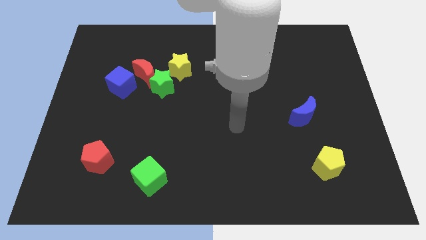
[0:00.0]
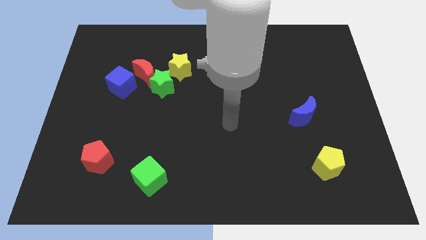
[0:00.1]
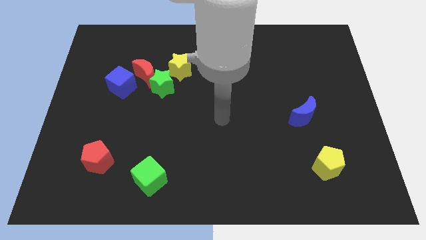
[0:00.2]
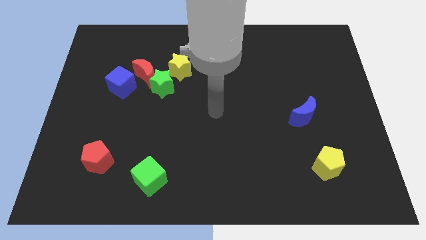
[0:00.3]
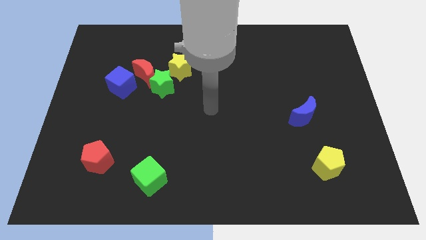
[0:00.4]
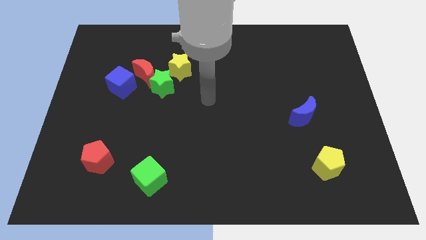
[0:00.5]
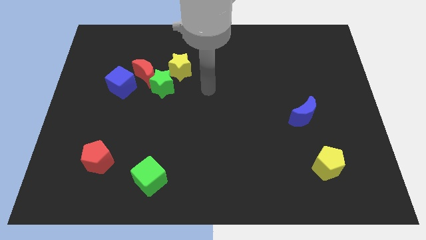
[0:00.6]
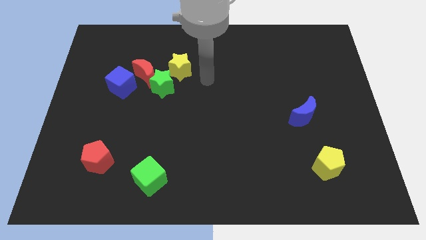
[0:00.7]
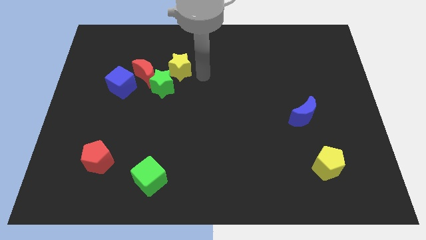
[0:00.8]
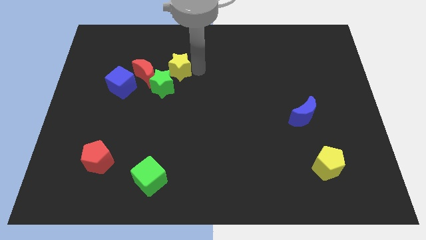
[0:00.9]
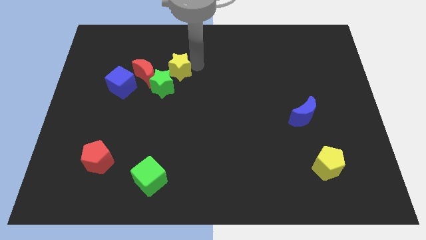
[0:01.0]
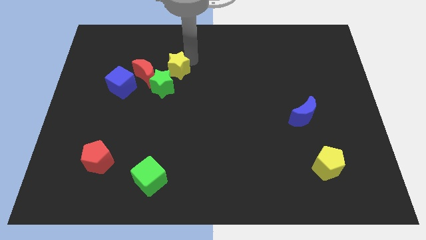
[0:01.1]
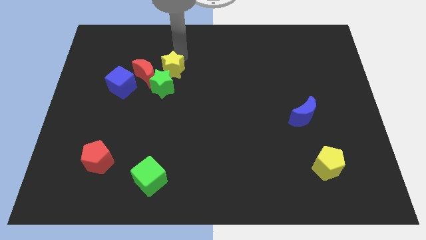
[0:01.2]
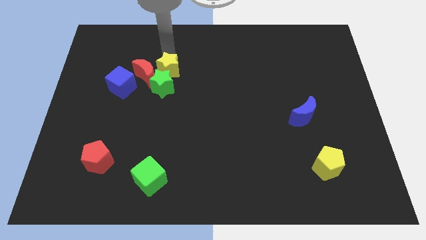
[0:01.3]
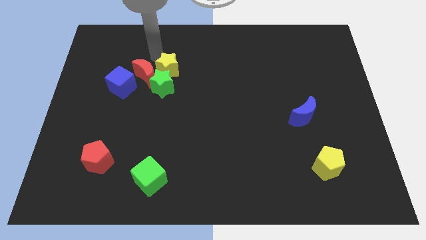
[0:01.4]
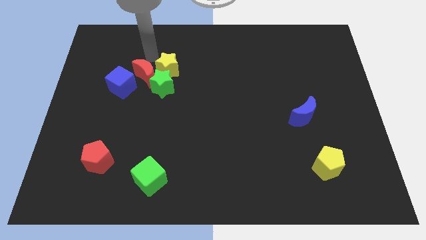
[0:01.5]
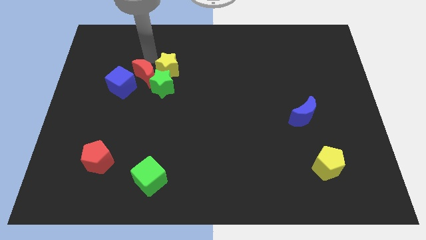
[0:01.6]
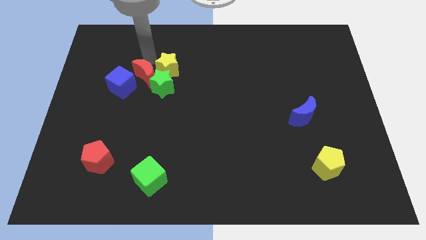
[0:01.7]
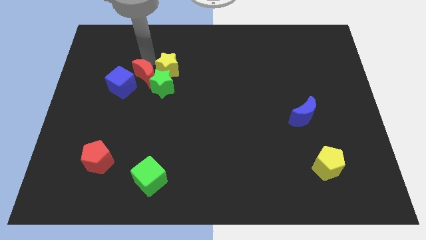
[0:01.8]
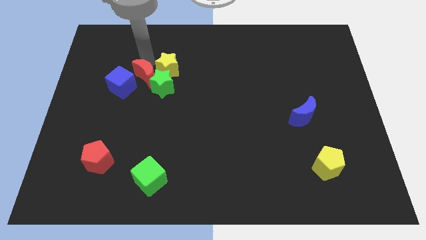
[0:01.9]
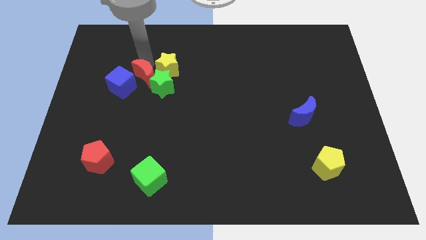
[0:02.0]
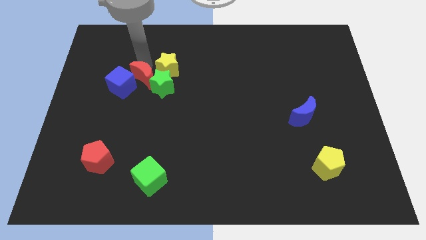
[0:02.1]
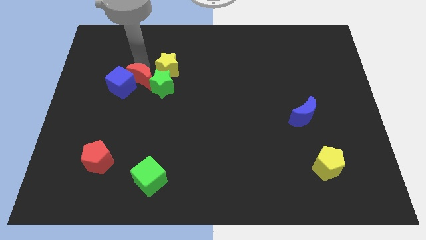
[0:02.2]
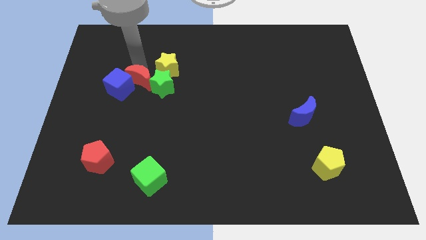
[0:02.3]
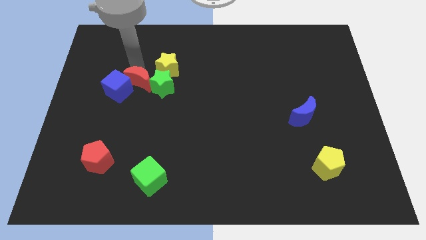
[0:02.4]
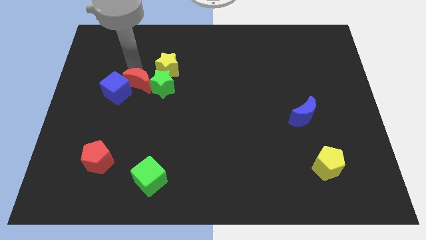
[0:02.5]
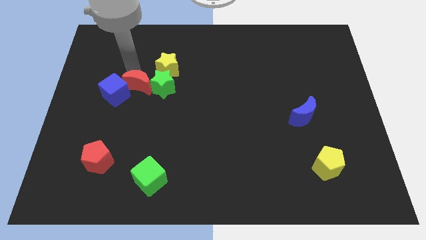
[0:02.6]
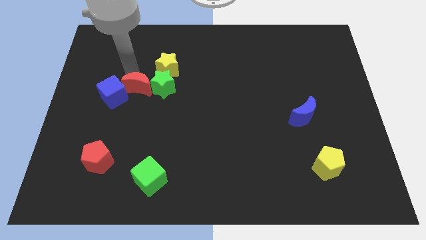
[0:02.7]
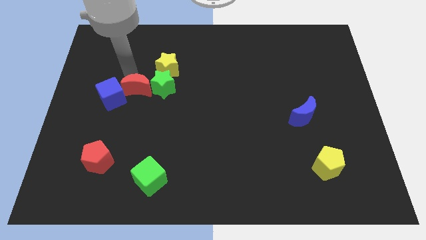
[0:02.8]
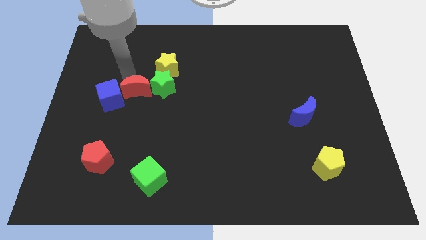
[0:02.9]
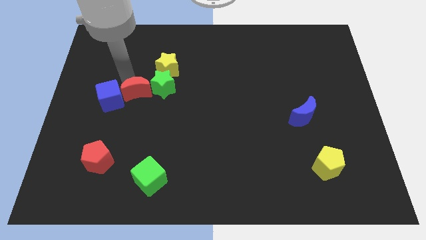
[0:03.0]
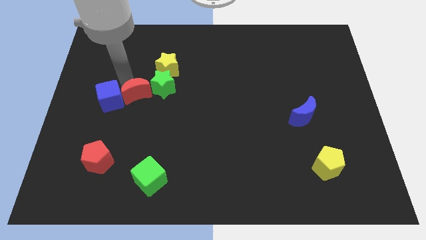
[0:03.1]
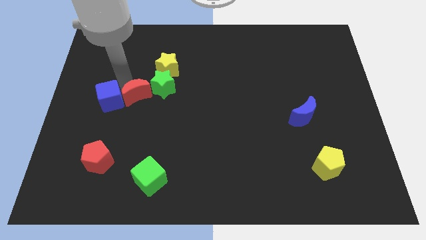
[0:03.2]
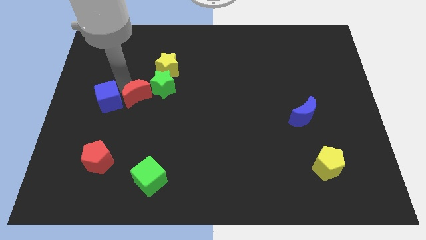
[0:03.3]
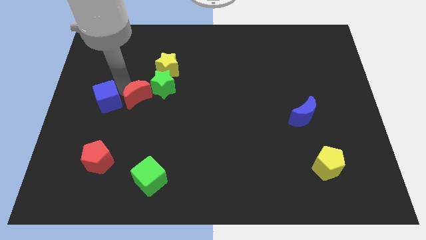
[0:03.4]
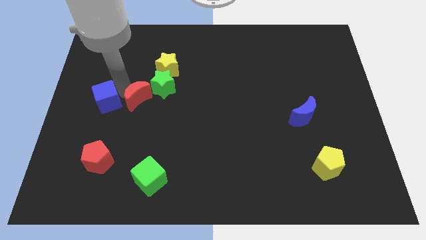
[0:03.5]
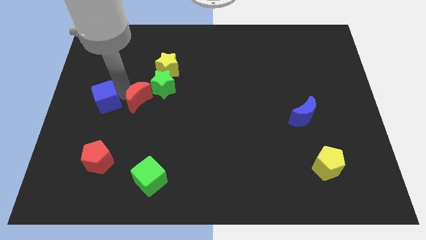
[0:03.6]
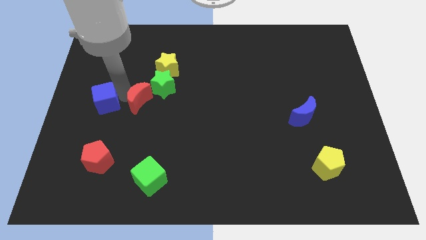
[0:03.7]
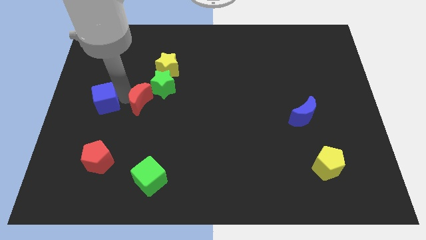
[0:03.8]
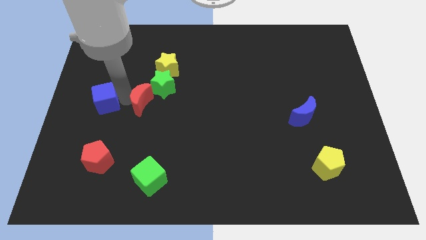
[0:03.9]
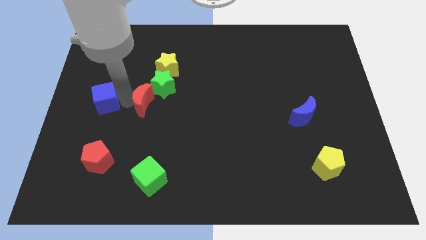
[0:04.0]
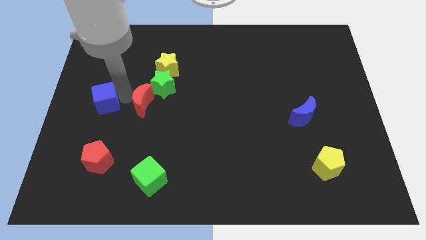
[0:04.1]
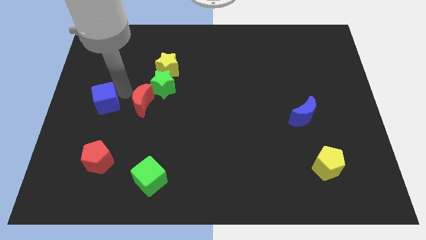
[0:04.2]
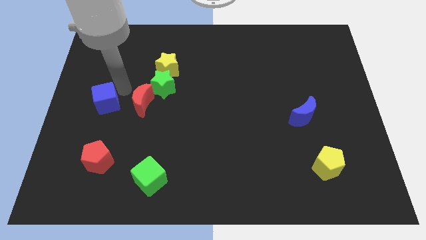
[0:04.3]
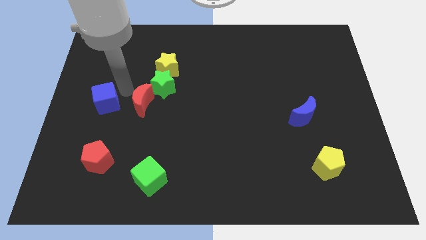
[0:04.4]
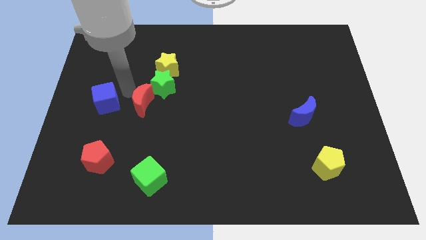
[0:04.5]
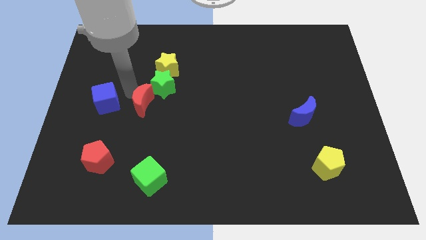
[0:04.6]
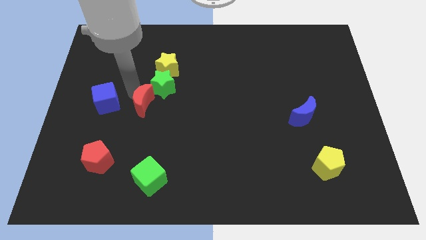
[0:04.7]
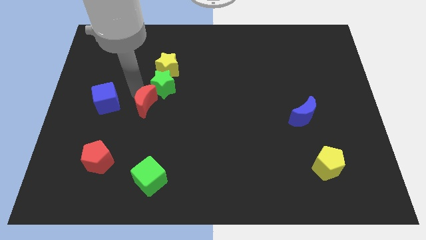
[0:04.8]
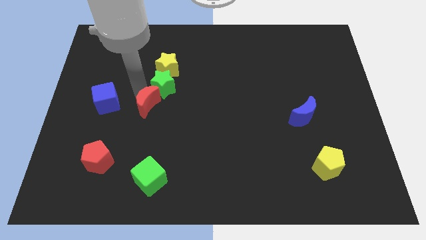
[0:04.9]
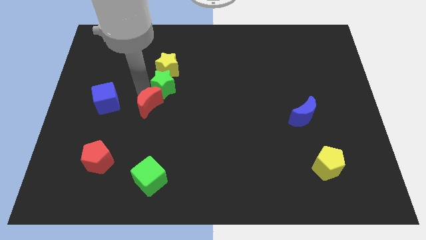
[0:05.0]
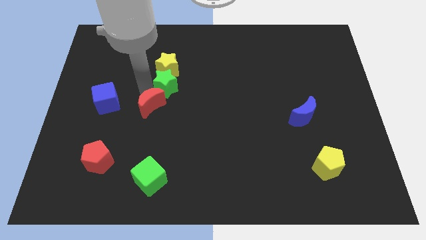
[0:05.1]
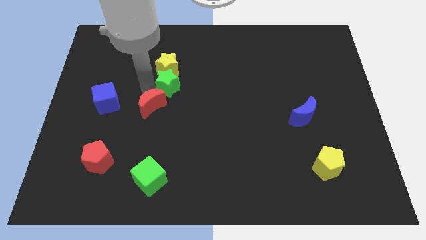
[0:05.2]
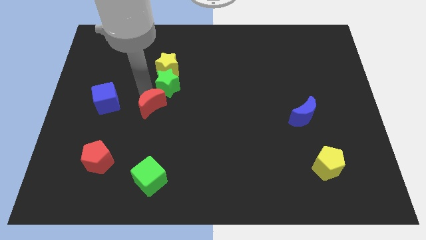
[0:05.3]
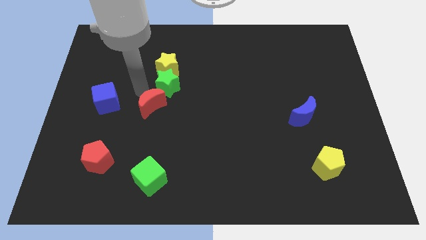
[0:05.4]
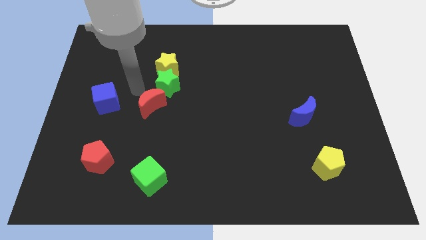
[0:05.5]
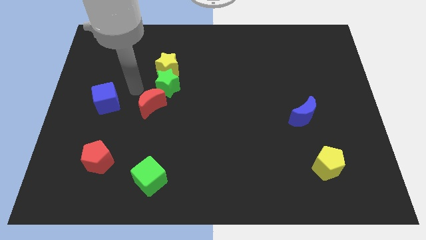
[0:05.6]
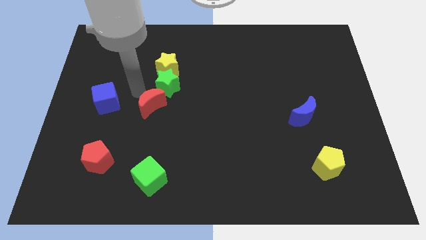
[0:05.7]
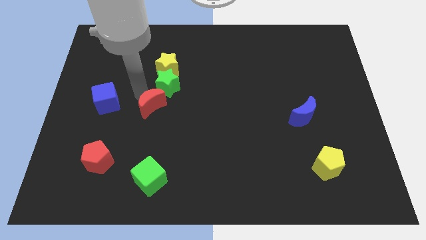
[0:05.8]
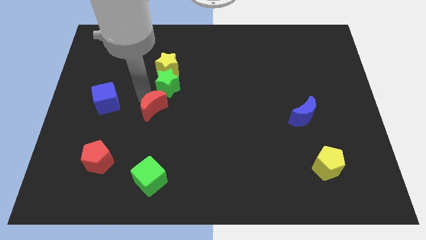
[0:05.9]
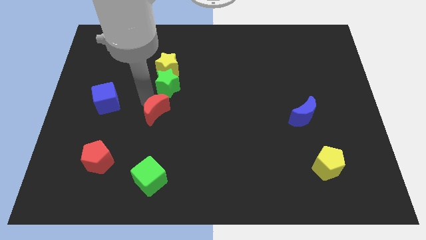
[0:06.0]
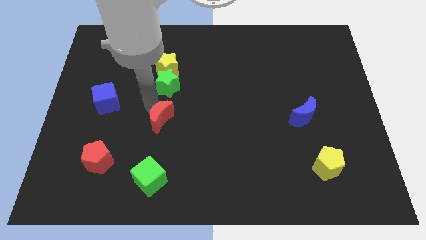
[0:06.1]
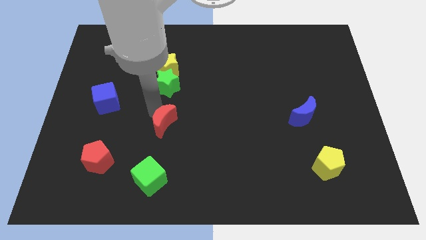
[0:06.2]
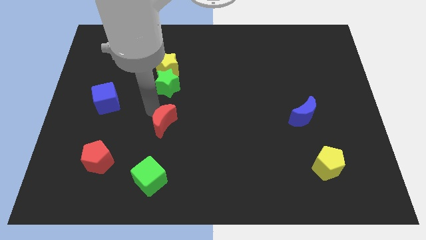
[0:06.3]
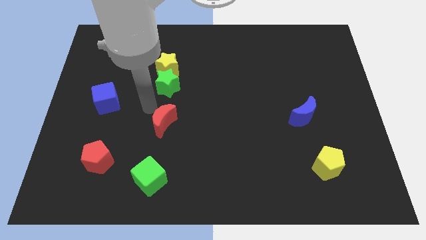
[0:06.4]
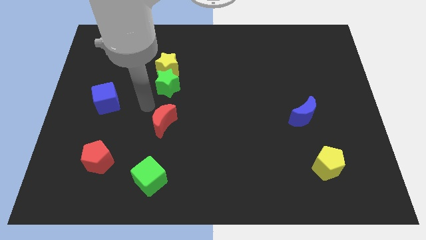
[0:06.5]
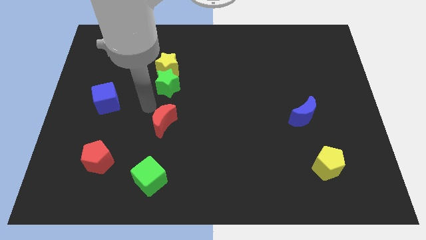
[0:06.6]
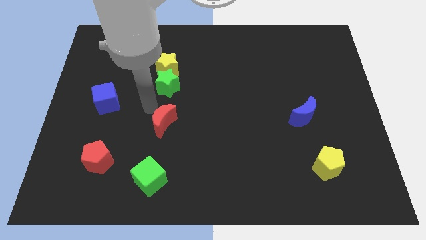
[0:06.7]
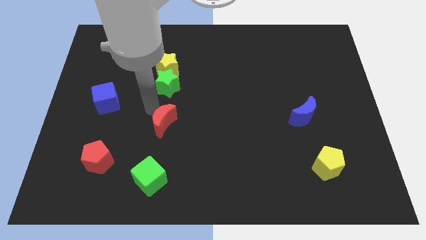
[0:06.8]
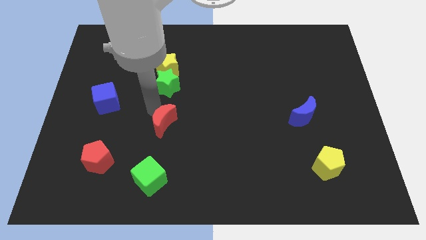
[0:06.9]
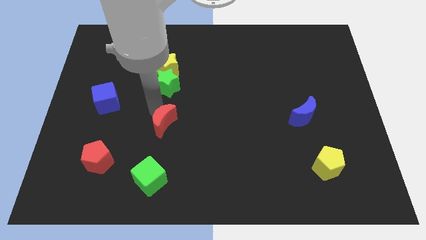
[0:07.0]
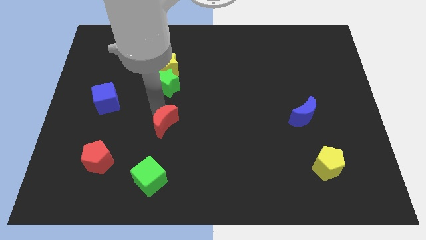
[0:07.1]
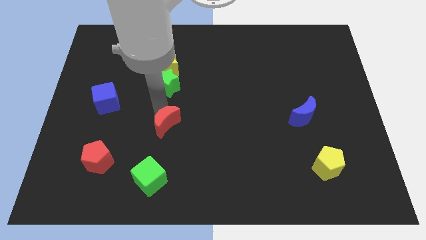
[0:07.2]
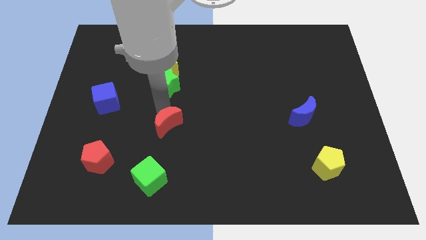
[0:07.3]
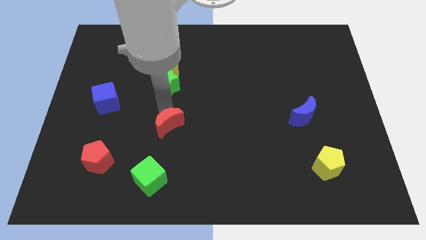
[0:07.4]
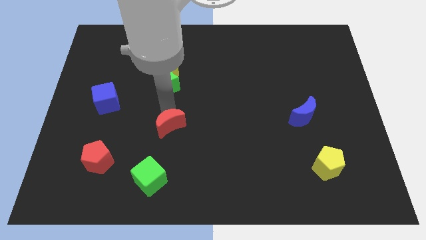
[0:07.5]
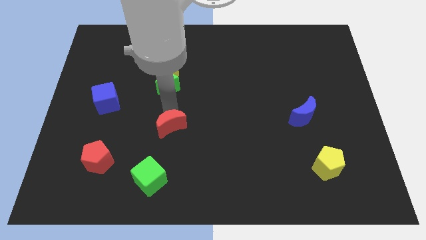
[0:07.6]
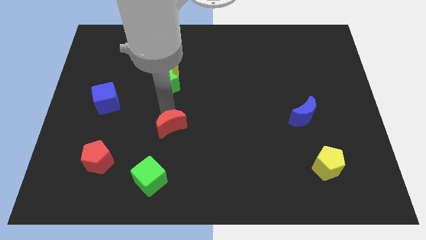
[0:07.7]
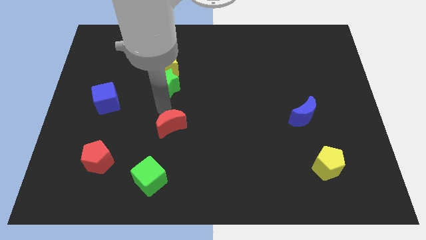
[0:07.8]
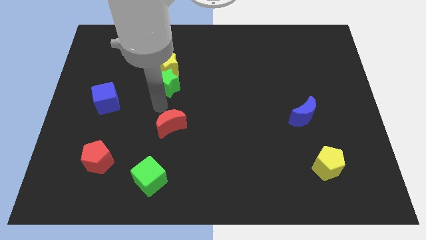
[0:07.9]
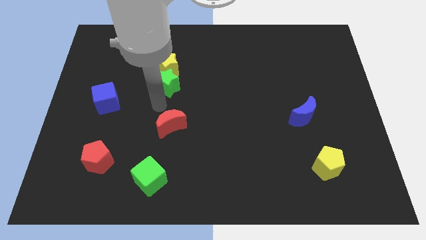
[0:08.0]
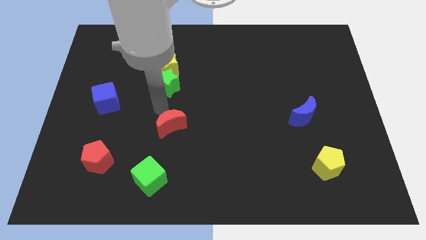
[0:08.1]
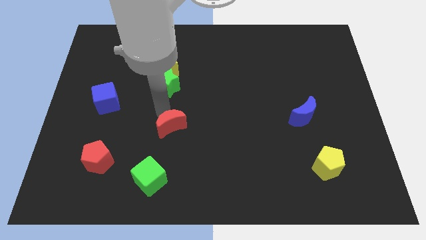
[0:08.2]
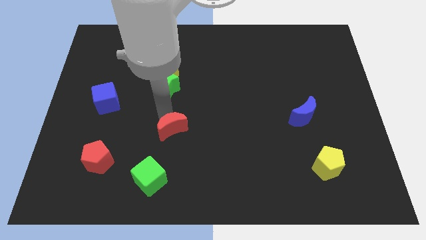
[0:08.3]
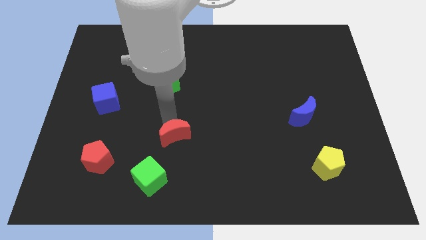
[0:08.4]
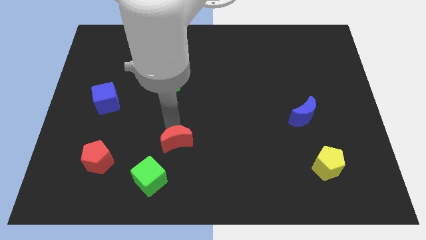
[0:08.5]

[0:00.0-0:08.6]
slide the red moon to the top right side of the green cube
